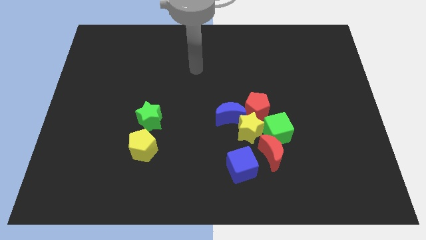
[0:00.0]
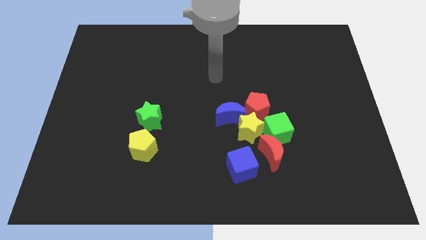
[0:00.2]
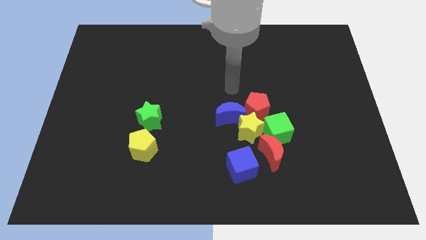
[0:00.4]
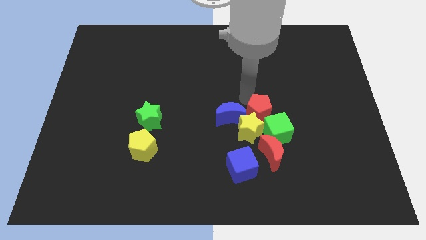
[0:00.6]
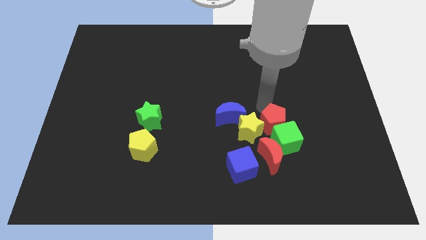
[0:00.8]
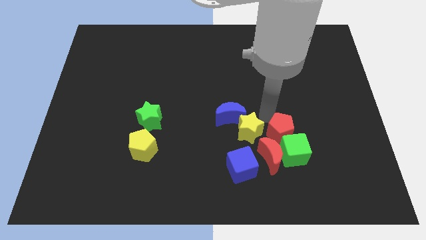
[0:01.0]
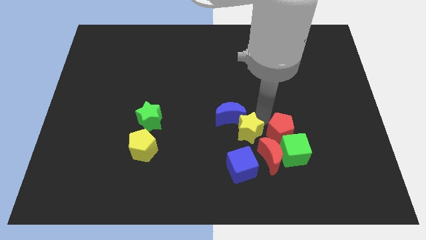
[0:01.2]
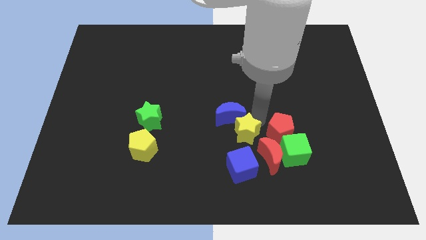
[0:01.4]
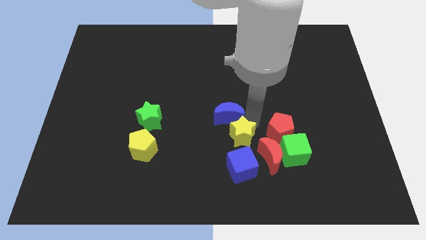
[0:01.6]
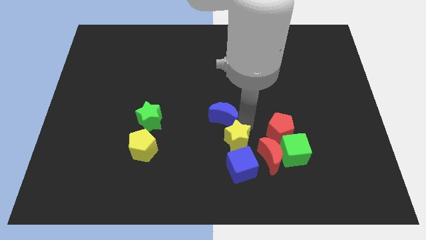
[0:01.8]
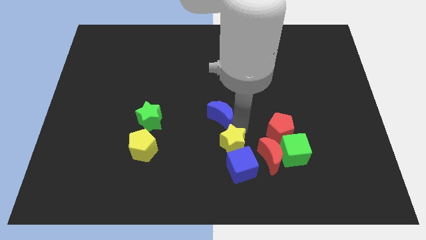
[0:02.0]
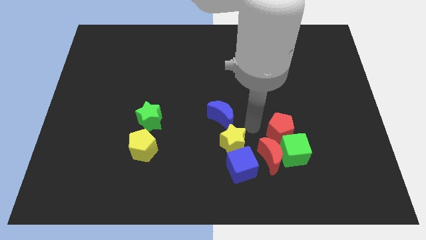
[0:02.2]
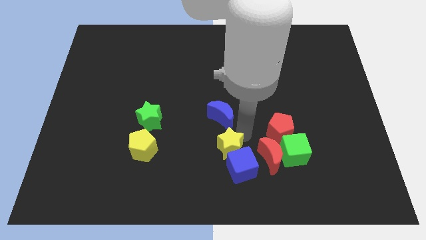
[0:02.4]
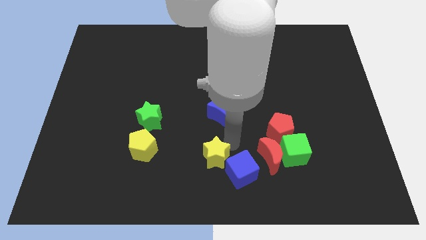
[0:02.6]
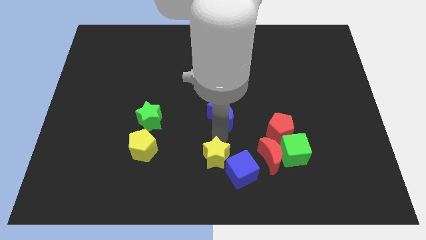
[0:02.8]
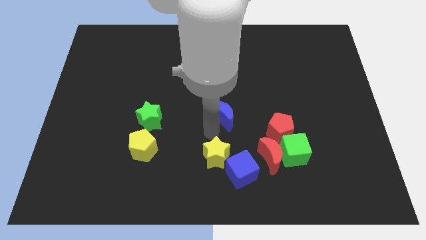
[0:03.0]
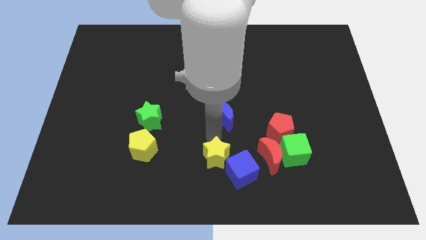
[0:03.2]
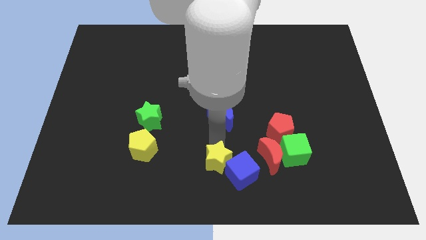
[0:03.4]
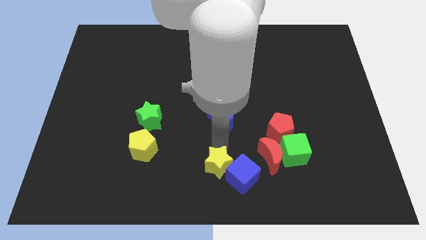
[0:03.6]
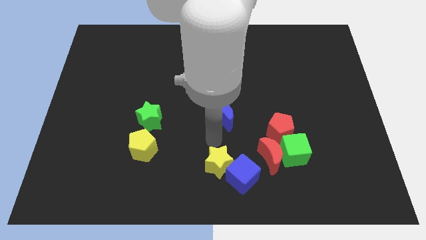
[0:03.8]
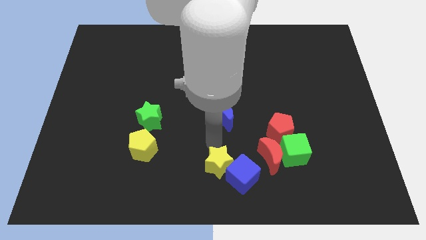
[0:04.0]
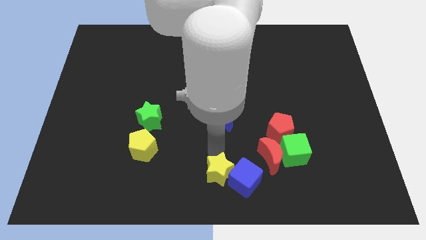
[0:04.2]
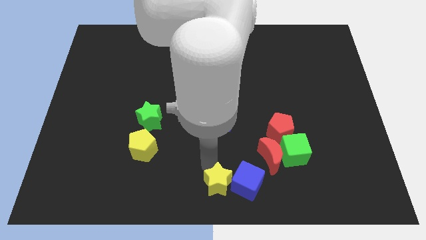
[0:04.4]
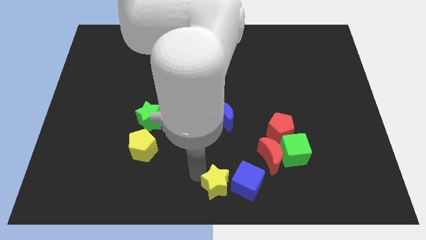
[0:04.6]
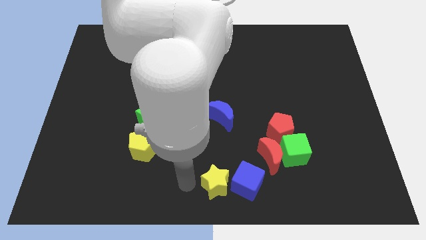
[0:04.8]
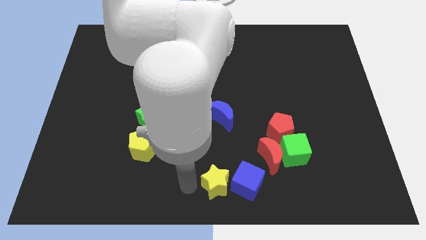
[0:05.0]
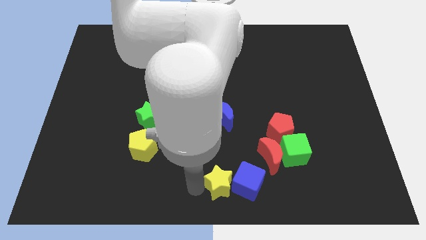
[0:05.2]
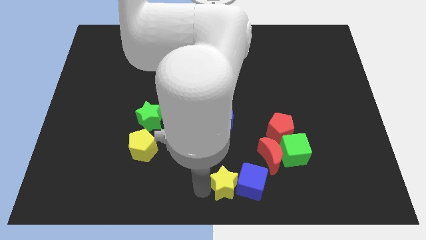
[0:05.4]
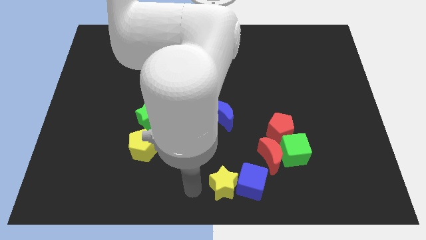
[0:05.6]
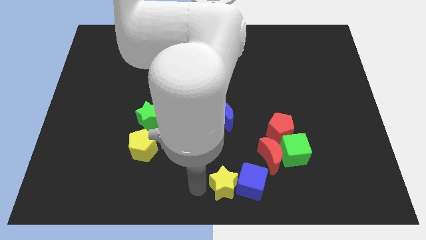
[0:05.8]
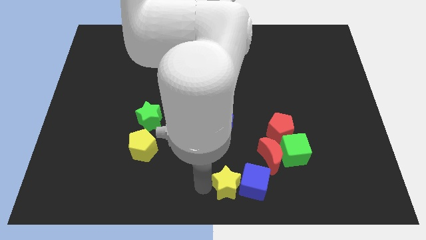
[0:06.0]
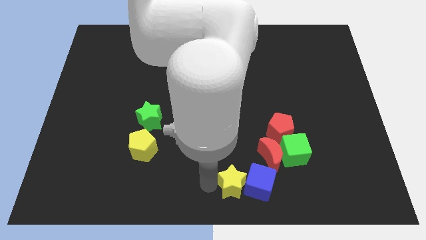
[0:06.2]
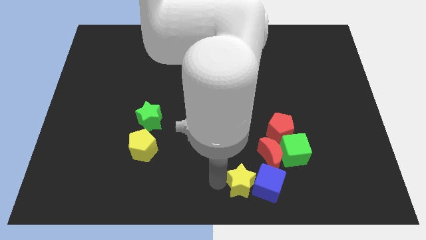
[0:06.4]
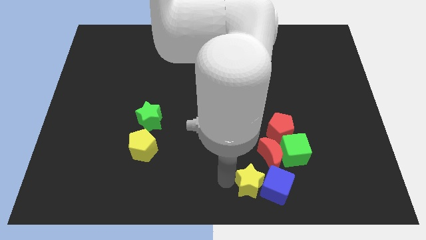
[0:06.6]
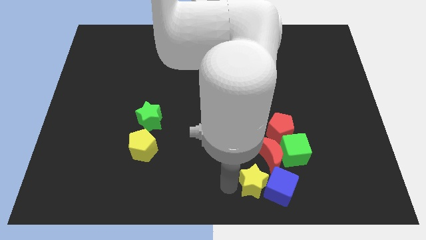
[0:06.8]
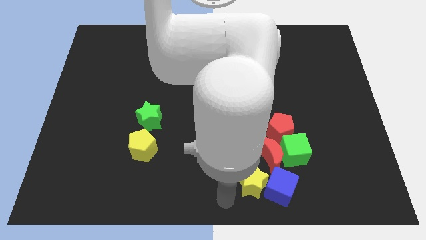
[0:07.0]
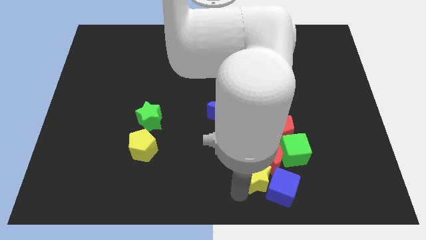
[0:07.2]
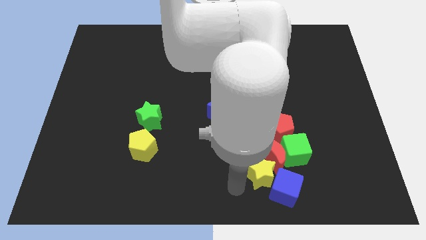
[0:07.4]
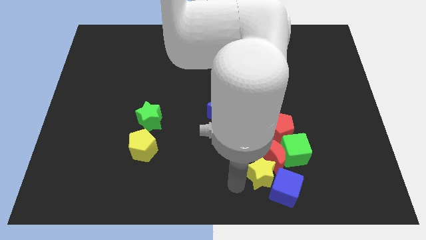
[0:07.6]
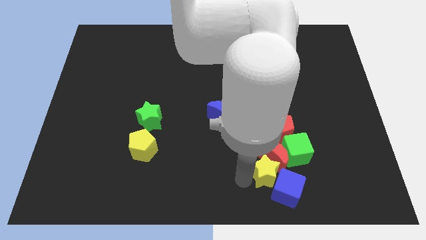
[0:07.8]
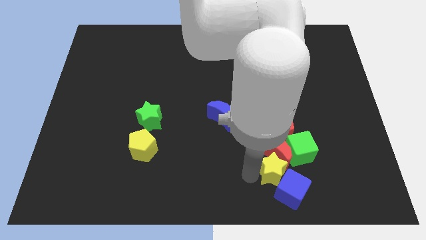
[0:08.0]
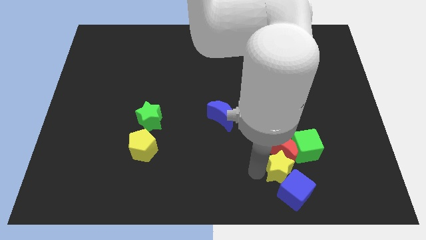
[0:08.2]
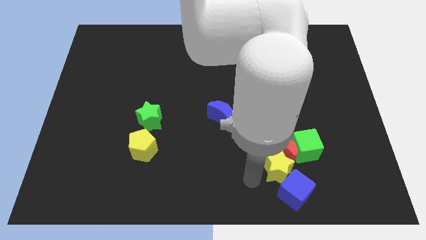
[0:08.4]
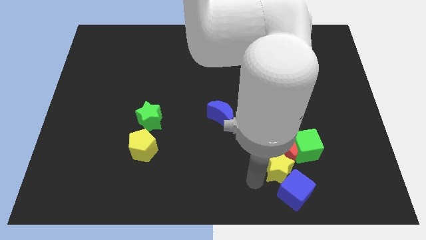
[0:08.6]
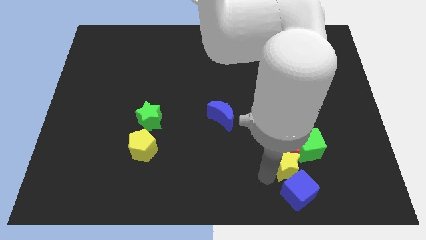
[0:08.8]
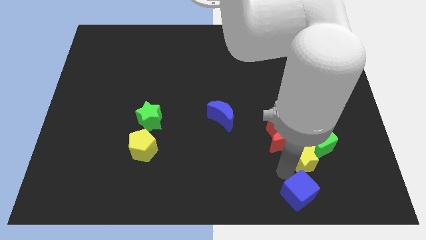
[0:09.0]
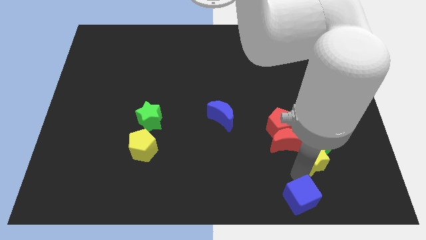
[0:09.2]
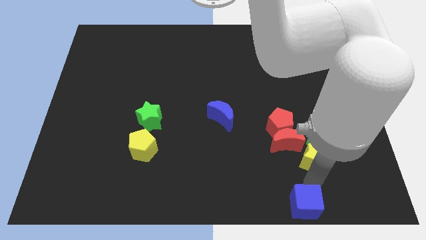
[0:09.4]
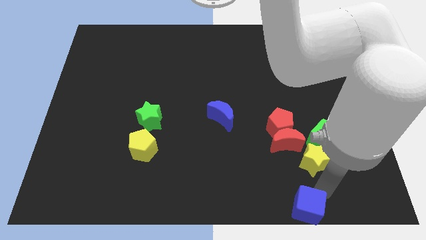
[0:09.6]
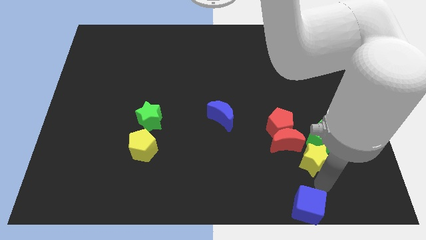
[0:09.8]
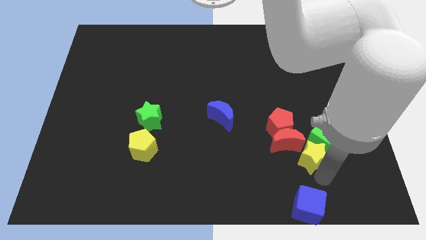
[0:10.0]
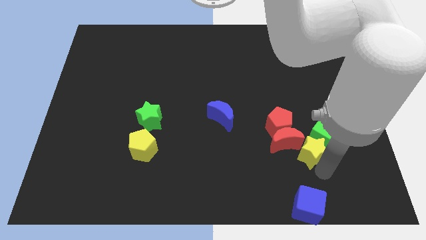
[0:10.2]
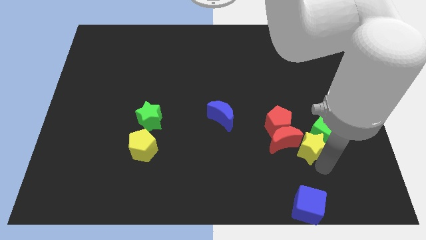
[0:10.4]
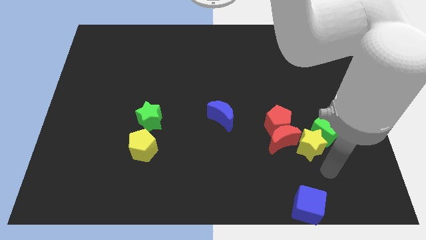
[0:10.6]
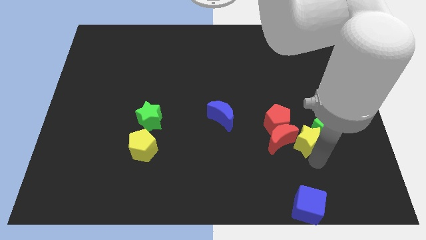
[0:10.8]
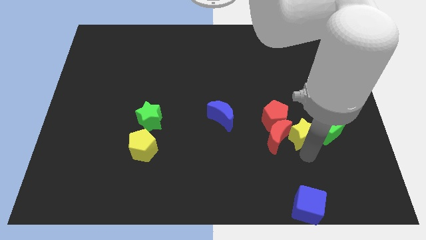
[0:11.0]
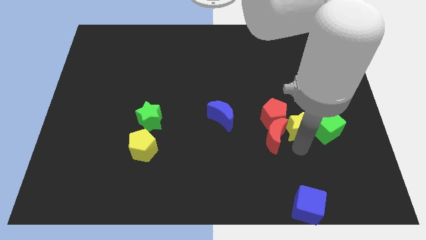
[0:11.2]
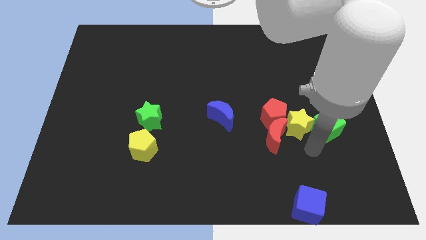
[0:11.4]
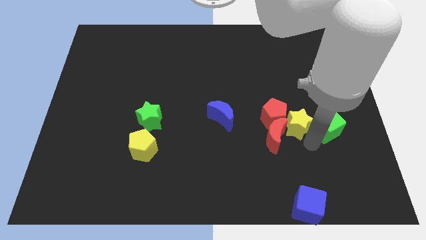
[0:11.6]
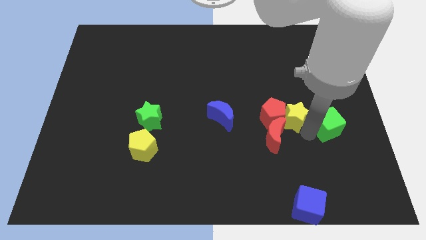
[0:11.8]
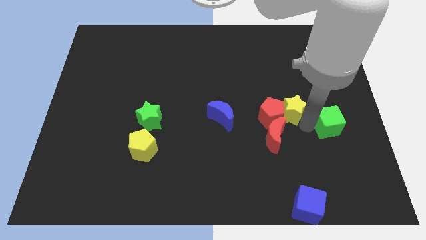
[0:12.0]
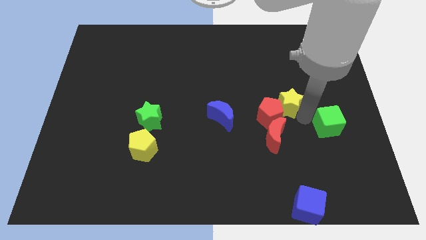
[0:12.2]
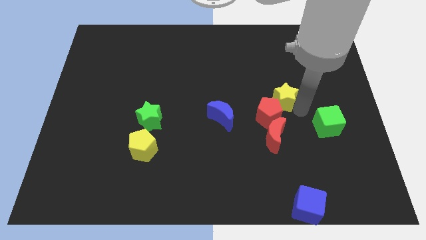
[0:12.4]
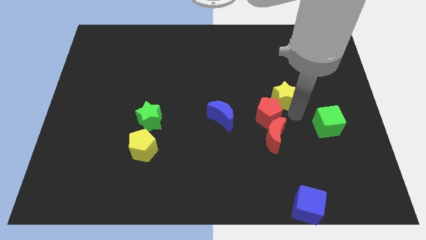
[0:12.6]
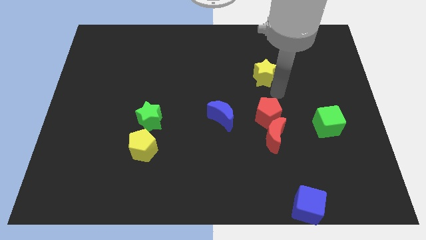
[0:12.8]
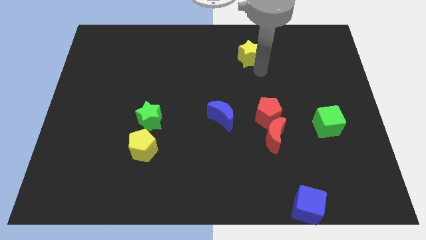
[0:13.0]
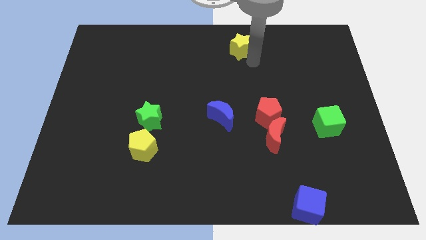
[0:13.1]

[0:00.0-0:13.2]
slide the yellow star to the top side
